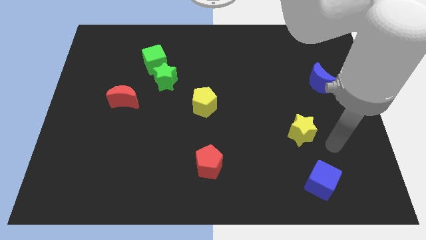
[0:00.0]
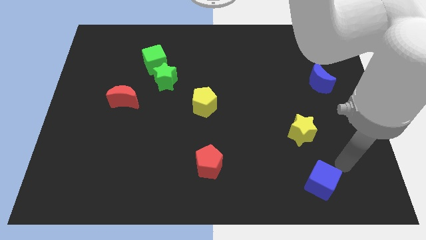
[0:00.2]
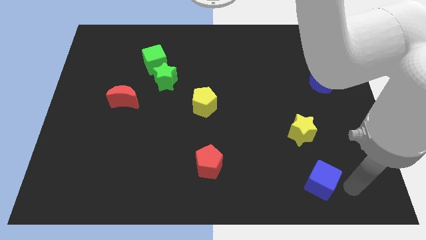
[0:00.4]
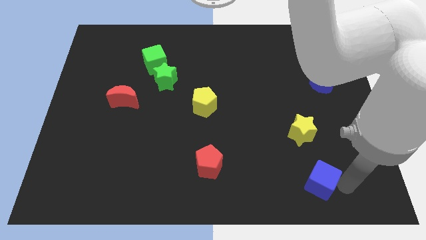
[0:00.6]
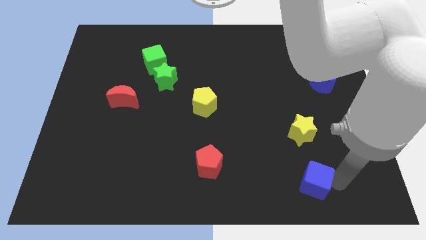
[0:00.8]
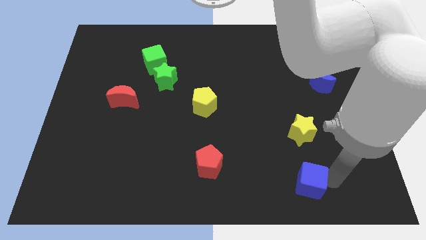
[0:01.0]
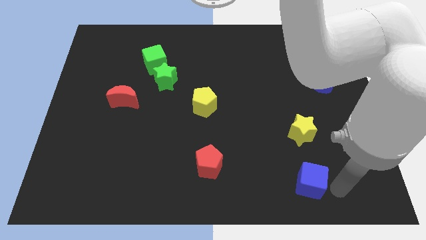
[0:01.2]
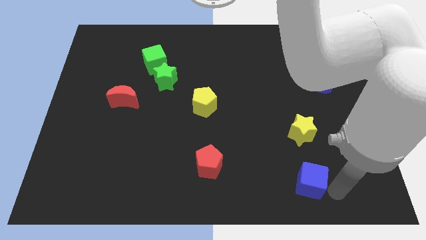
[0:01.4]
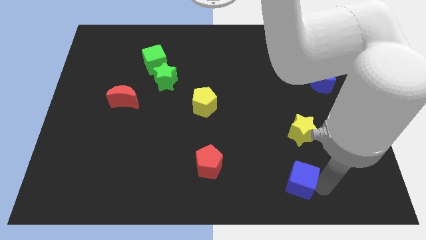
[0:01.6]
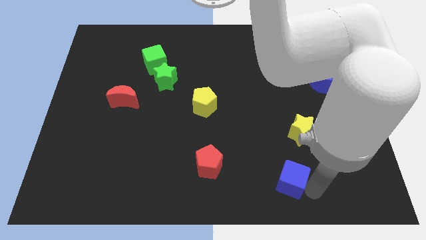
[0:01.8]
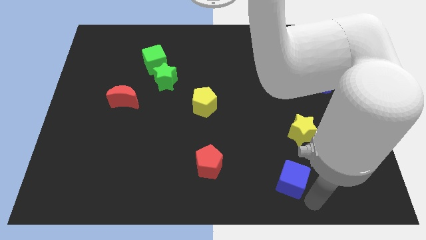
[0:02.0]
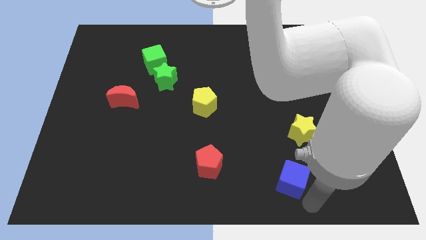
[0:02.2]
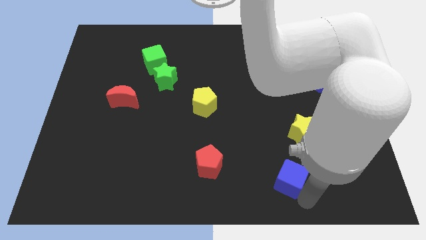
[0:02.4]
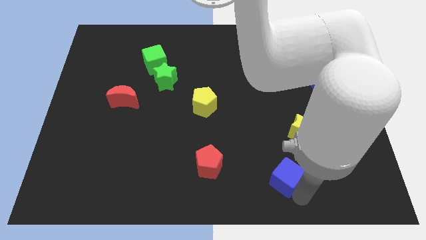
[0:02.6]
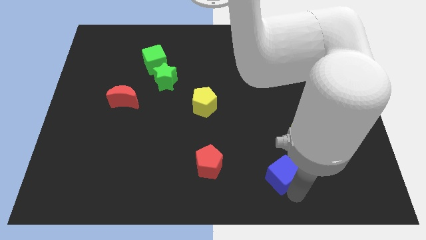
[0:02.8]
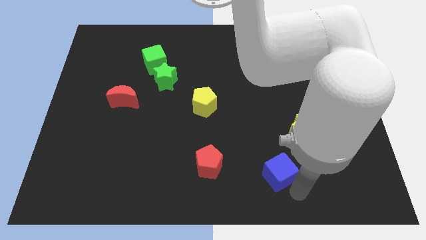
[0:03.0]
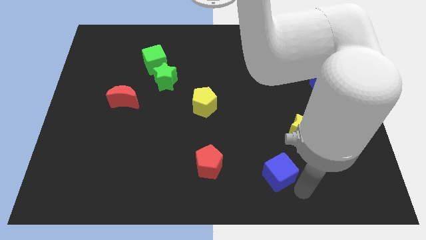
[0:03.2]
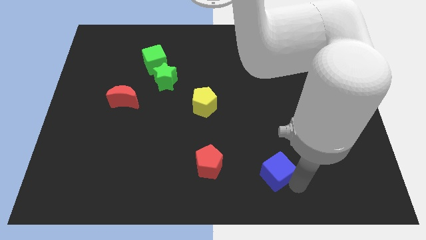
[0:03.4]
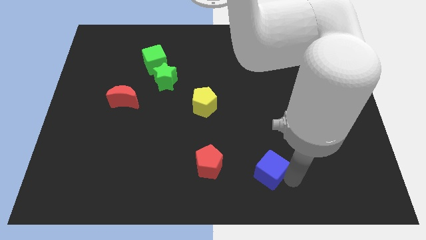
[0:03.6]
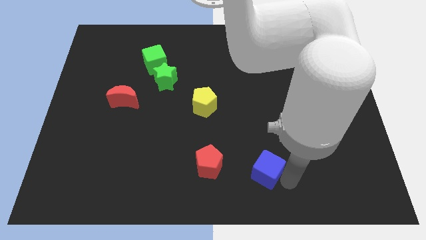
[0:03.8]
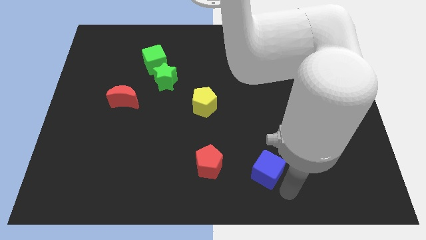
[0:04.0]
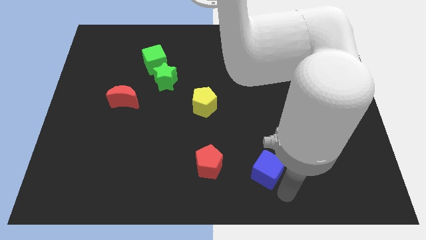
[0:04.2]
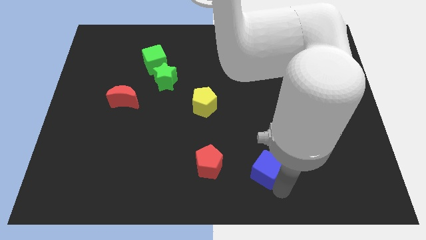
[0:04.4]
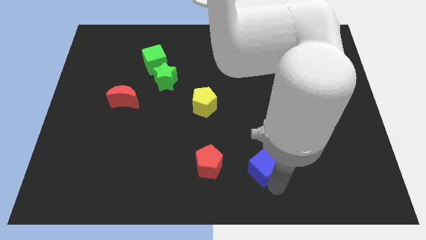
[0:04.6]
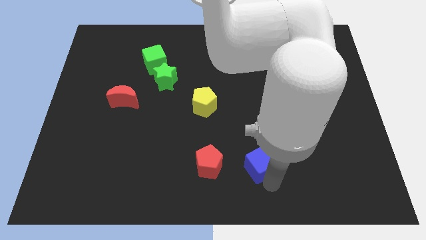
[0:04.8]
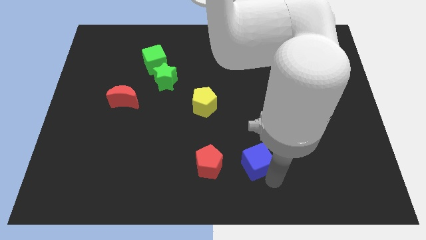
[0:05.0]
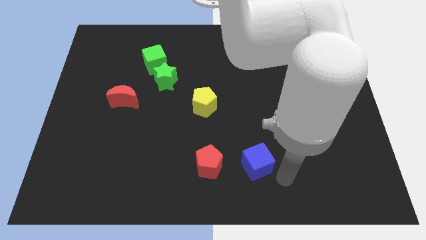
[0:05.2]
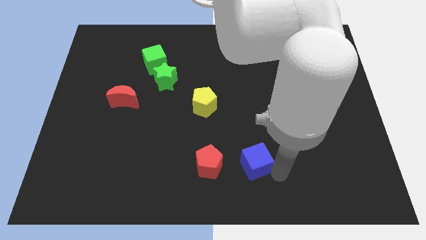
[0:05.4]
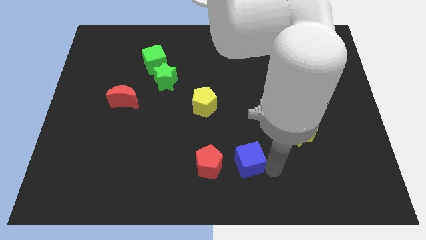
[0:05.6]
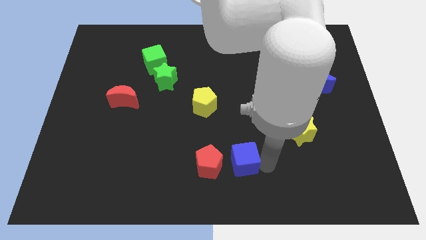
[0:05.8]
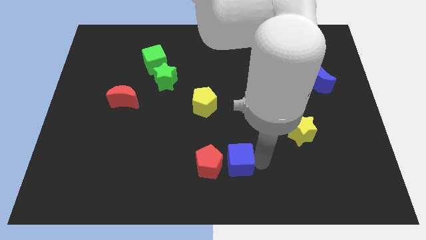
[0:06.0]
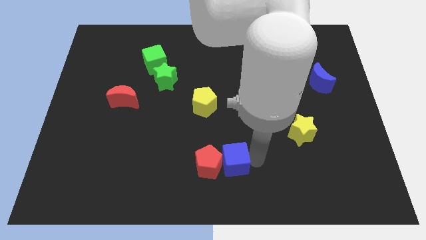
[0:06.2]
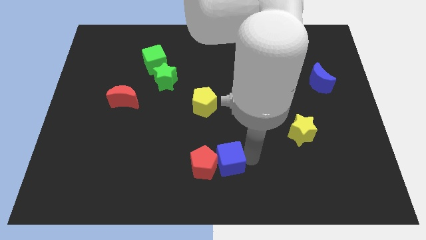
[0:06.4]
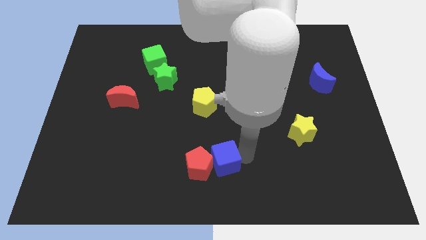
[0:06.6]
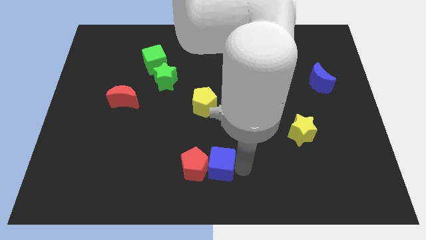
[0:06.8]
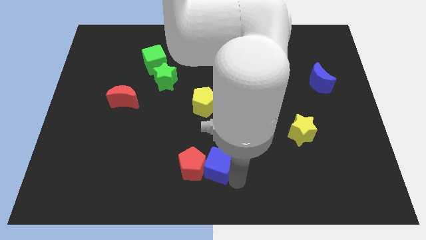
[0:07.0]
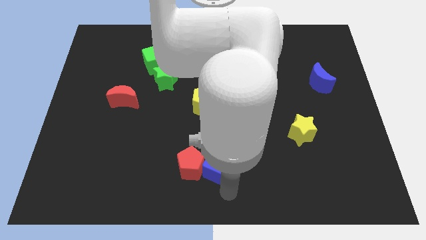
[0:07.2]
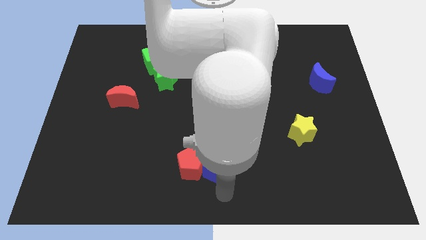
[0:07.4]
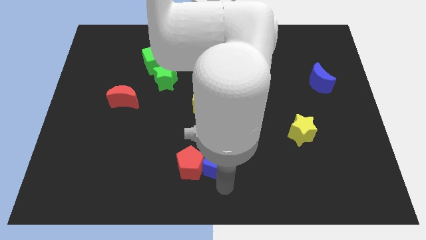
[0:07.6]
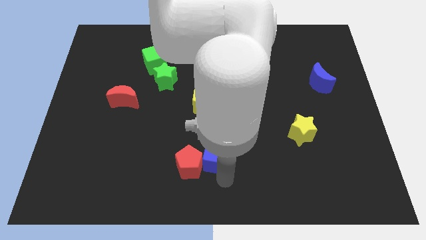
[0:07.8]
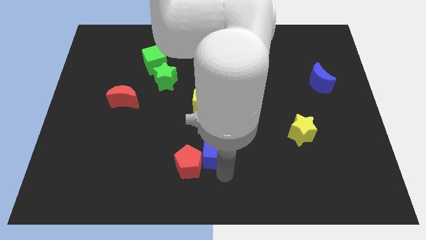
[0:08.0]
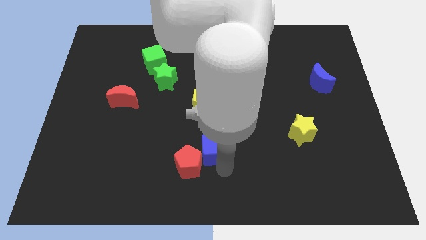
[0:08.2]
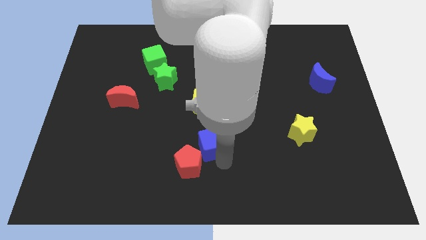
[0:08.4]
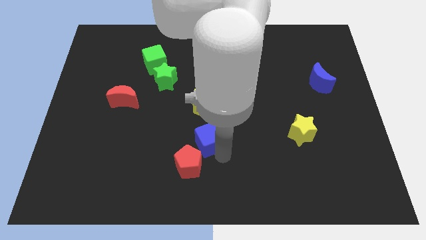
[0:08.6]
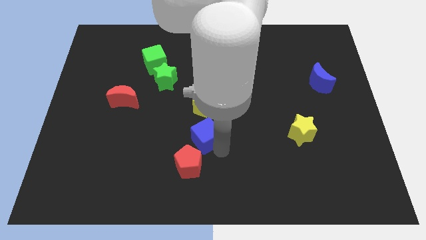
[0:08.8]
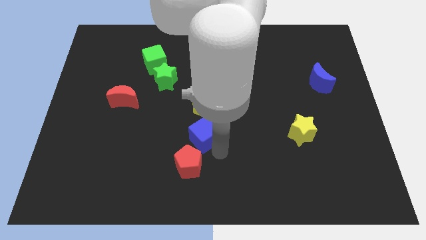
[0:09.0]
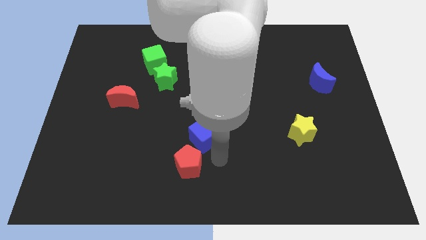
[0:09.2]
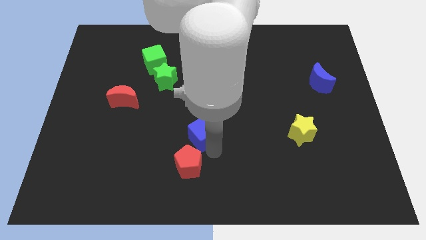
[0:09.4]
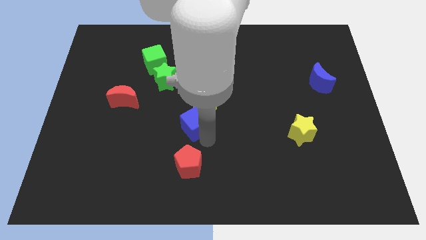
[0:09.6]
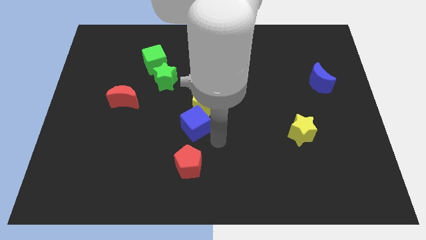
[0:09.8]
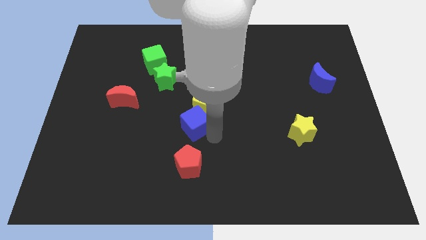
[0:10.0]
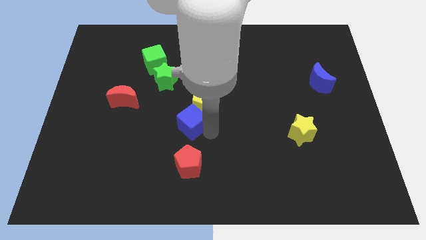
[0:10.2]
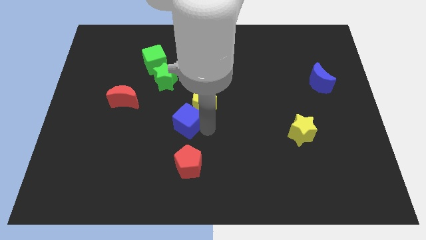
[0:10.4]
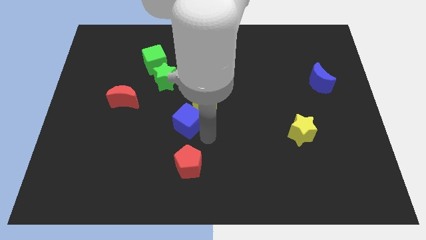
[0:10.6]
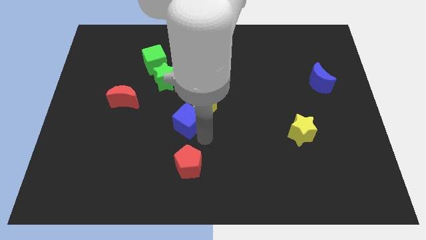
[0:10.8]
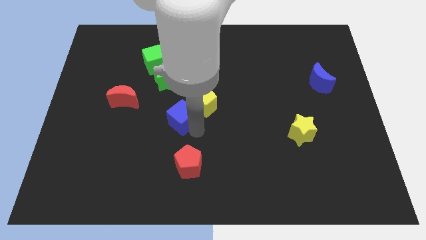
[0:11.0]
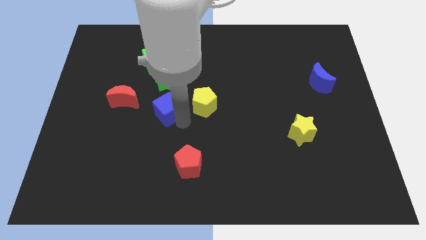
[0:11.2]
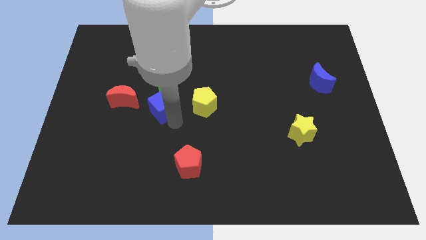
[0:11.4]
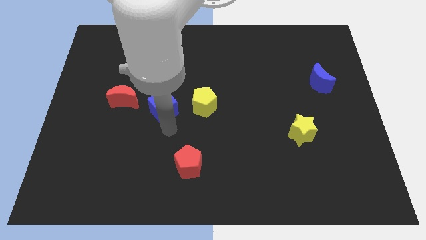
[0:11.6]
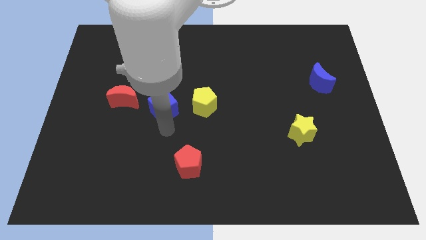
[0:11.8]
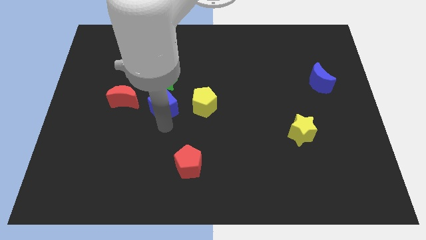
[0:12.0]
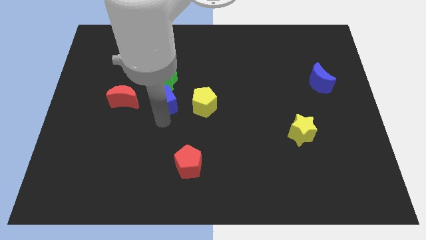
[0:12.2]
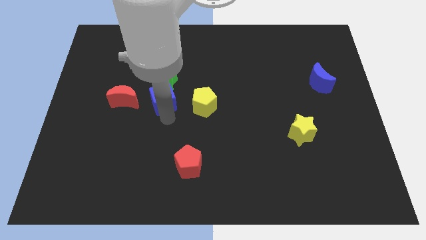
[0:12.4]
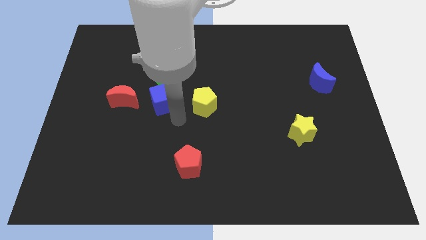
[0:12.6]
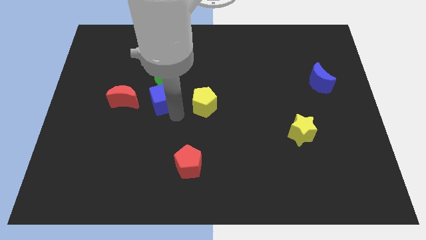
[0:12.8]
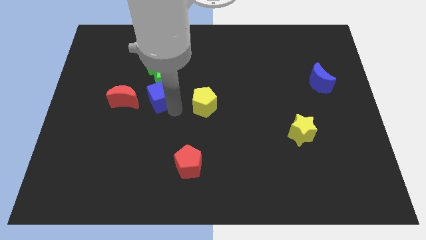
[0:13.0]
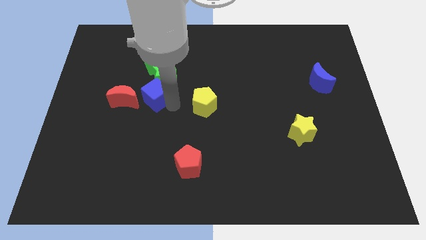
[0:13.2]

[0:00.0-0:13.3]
move the blue cube to the top right side of the red moon

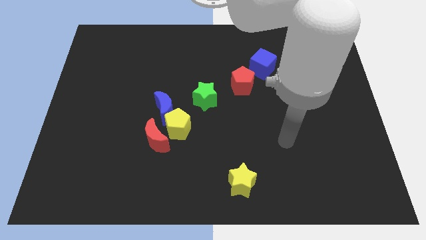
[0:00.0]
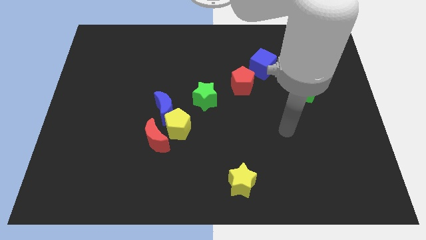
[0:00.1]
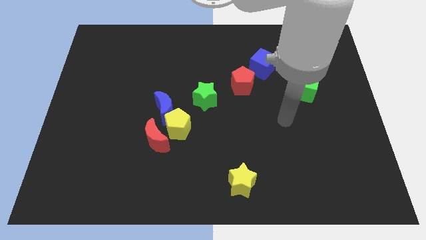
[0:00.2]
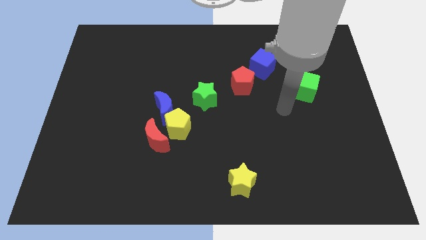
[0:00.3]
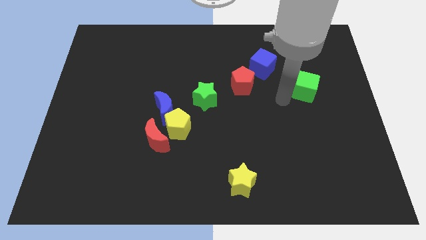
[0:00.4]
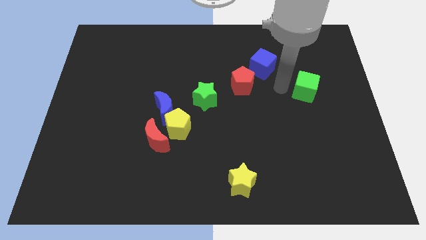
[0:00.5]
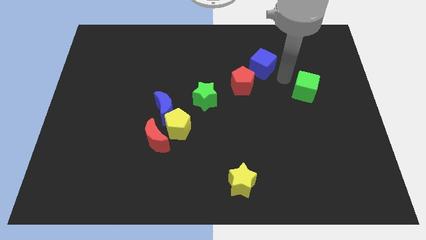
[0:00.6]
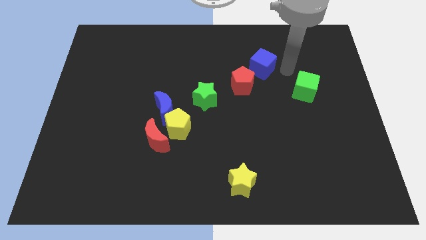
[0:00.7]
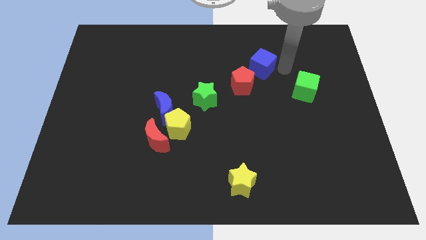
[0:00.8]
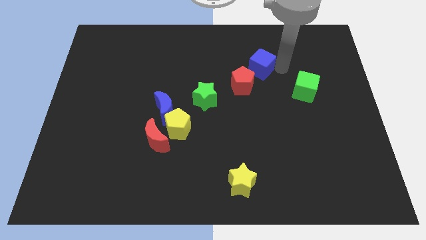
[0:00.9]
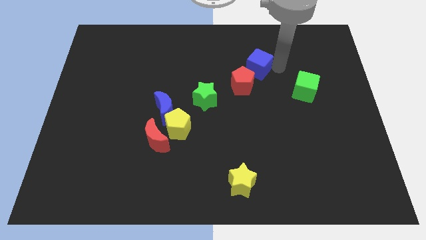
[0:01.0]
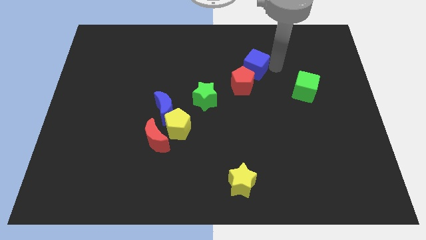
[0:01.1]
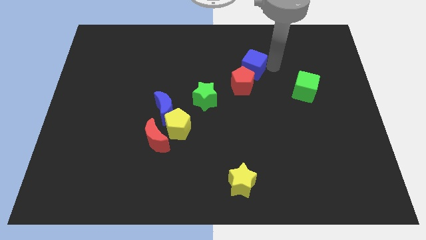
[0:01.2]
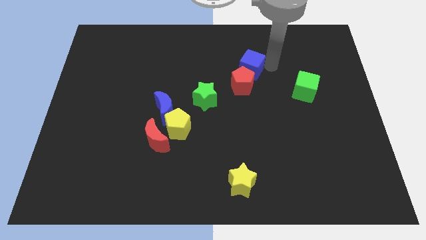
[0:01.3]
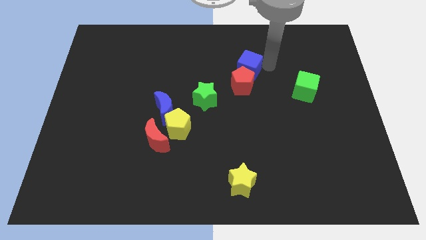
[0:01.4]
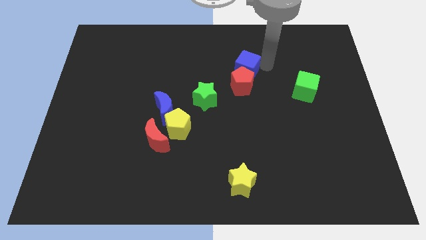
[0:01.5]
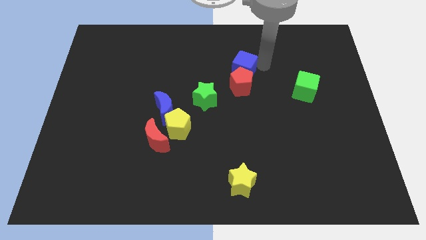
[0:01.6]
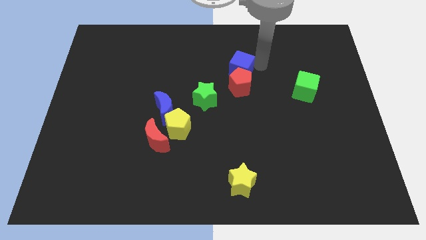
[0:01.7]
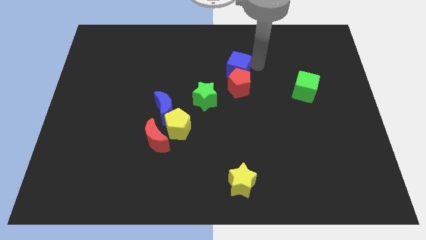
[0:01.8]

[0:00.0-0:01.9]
push the blue cube to the top right of the green star
